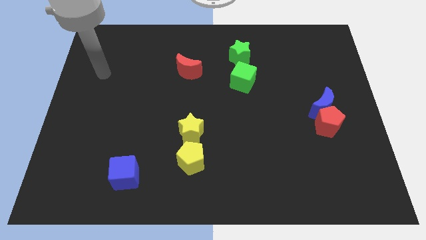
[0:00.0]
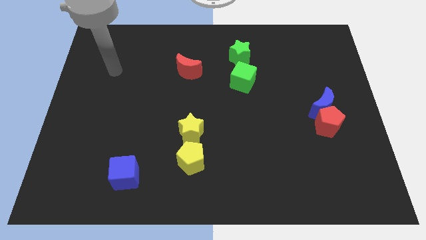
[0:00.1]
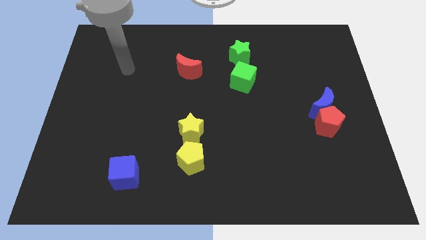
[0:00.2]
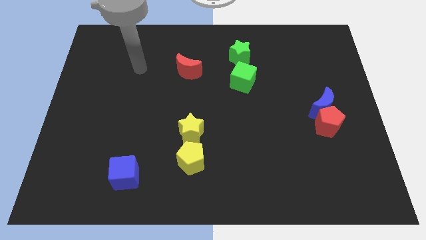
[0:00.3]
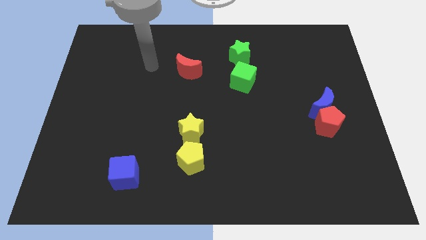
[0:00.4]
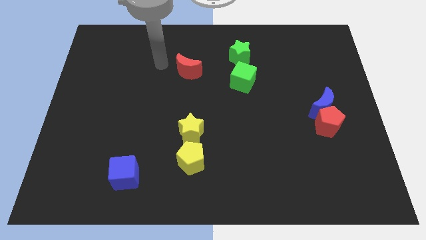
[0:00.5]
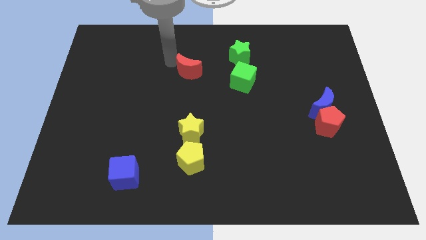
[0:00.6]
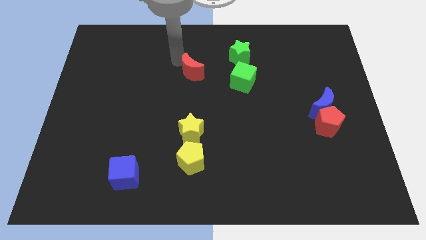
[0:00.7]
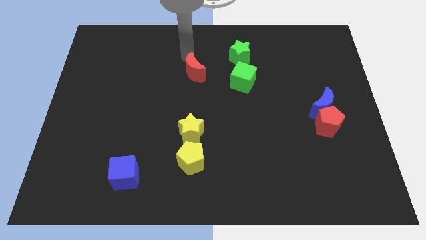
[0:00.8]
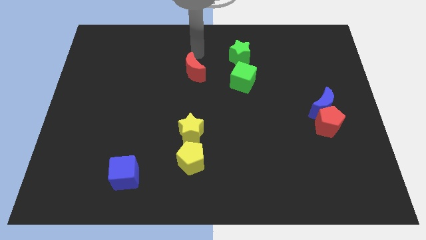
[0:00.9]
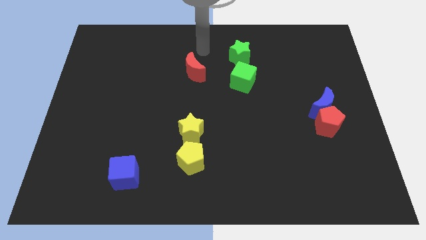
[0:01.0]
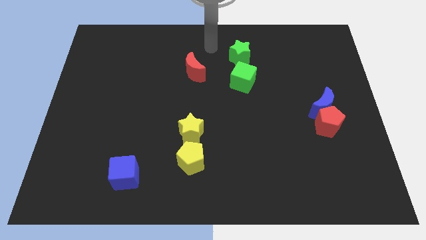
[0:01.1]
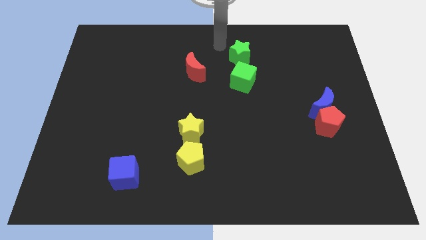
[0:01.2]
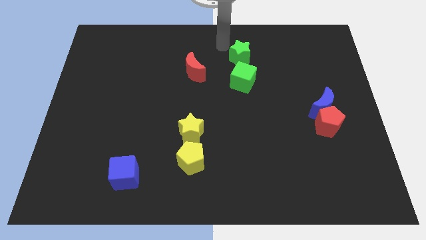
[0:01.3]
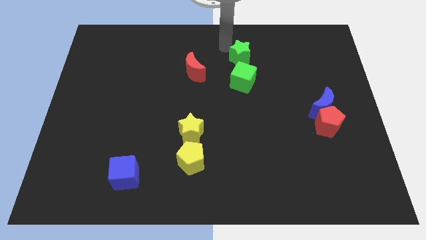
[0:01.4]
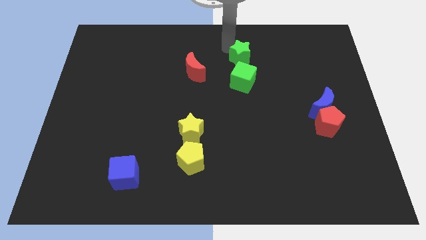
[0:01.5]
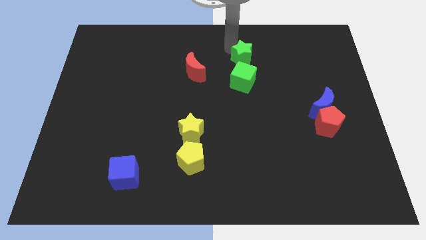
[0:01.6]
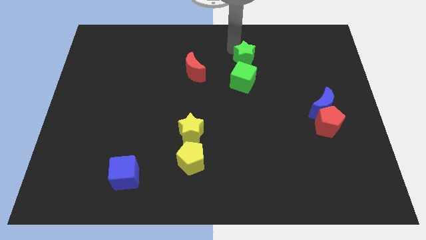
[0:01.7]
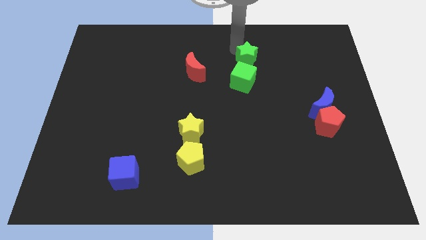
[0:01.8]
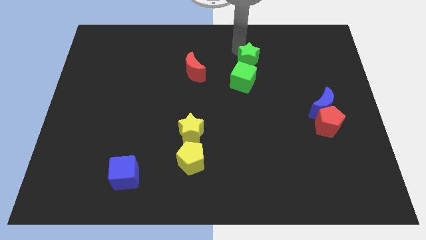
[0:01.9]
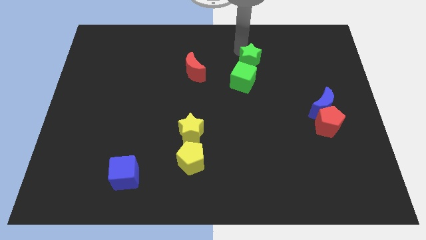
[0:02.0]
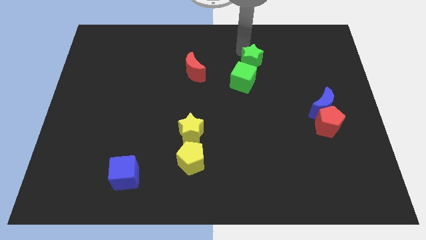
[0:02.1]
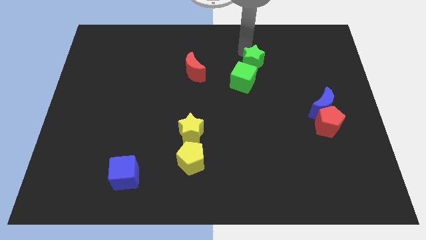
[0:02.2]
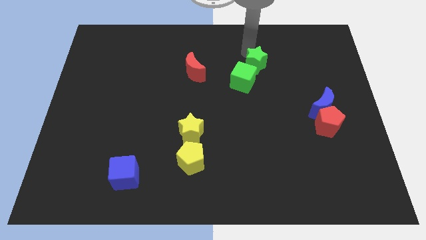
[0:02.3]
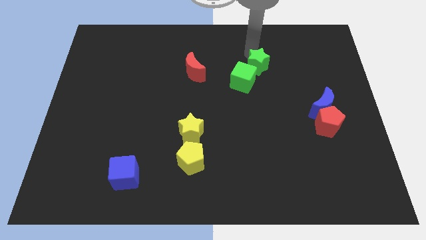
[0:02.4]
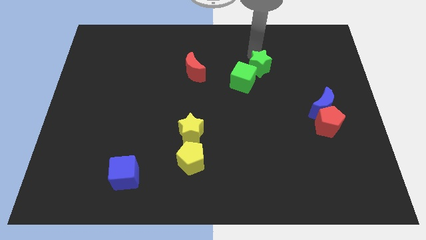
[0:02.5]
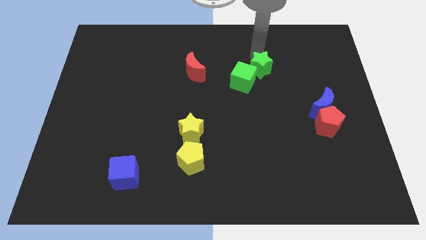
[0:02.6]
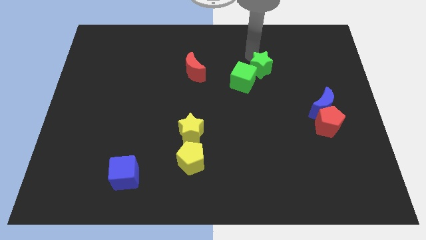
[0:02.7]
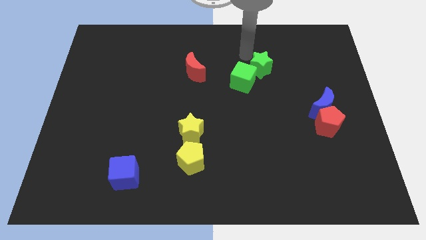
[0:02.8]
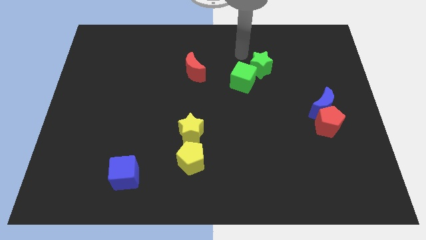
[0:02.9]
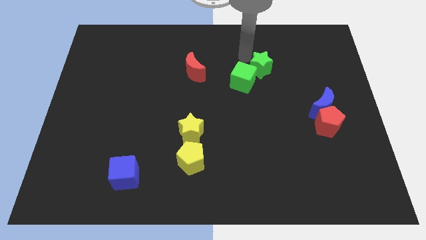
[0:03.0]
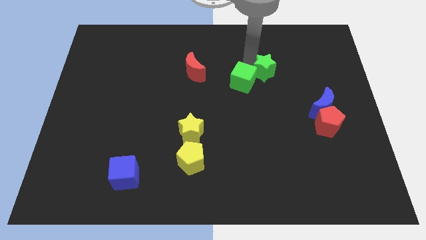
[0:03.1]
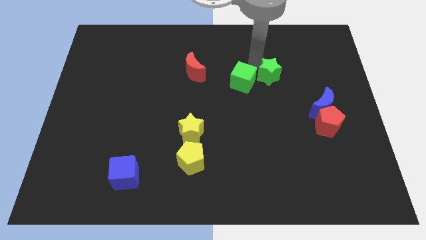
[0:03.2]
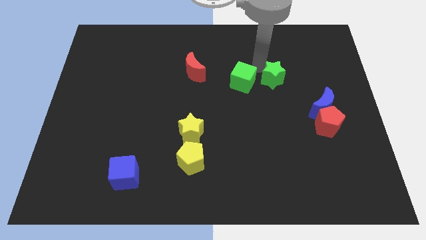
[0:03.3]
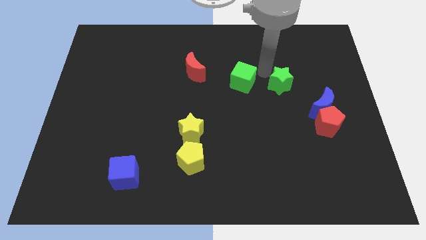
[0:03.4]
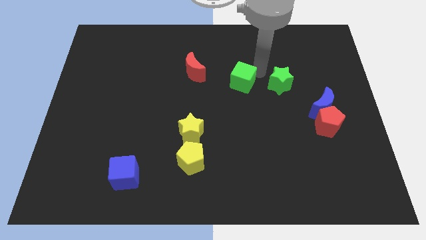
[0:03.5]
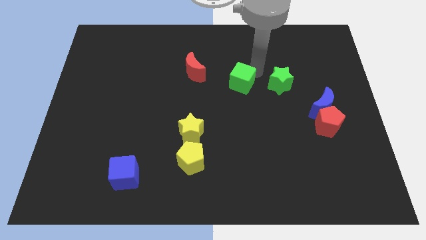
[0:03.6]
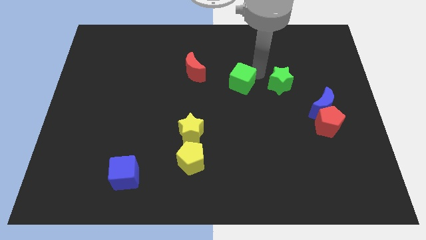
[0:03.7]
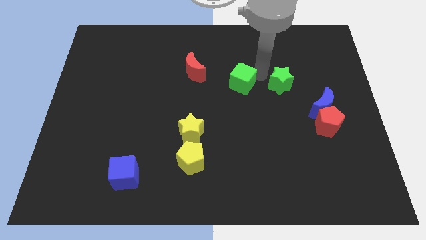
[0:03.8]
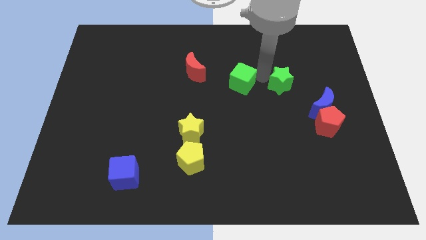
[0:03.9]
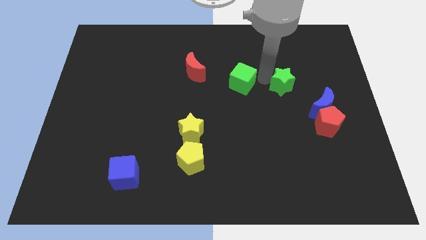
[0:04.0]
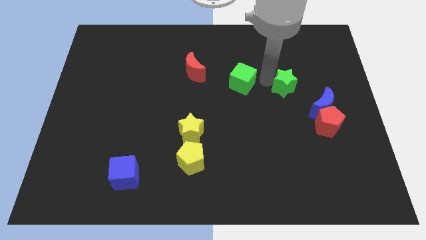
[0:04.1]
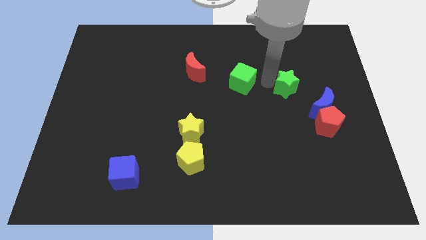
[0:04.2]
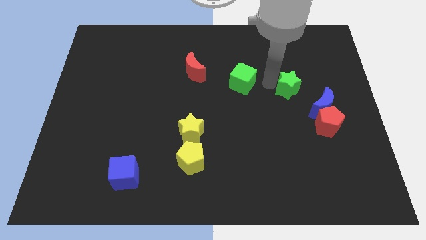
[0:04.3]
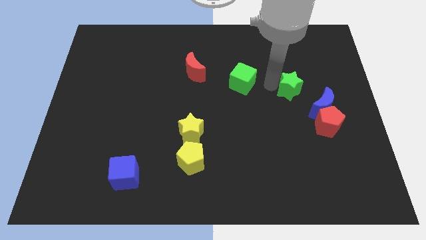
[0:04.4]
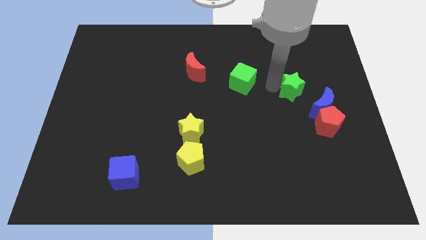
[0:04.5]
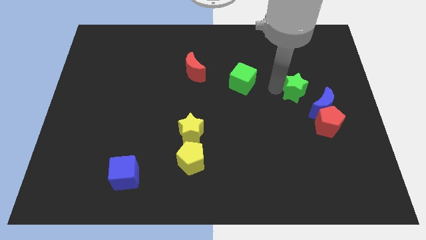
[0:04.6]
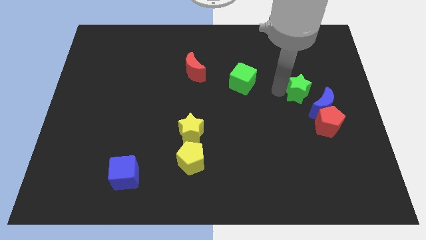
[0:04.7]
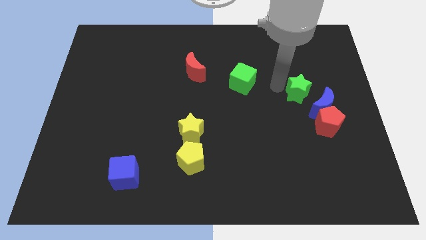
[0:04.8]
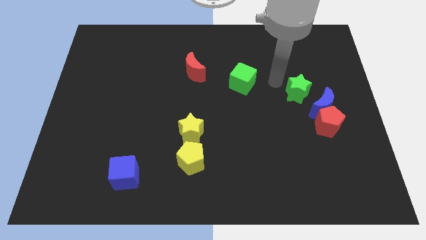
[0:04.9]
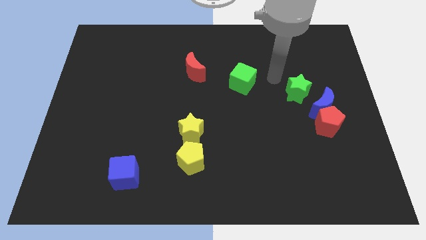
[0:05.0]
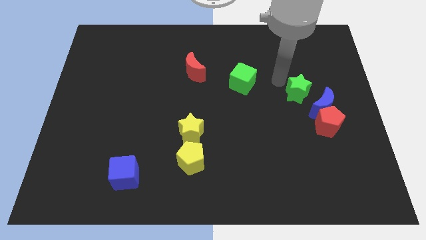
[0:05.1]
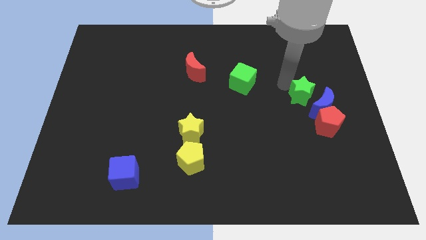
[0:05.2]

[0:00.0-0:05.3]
put the green star next to the blue moon

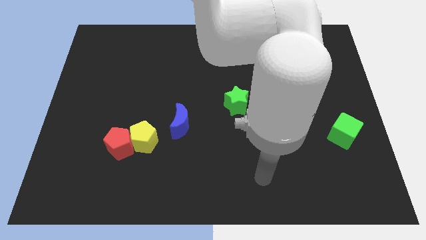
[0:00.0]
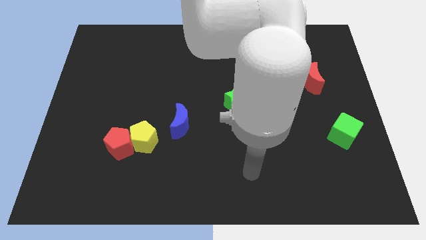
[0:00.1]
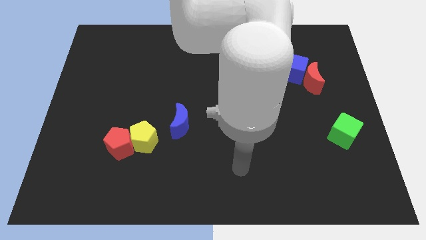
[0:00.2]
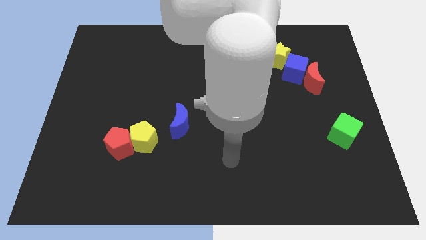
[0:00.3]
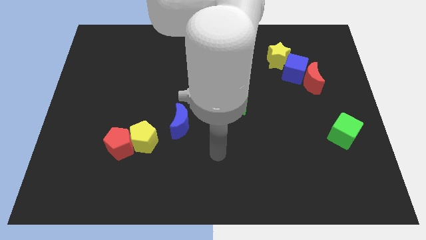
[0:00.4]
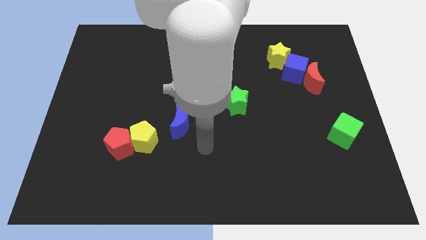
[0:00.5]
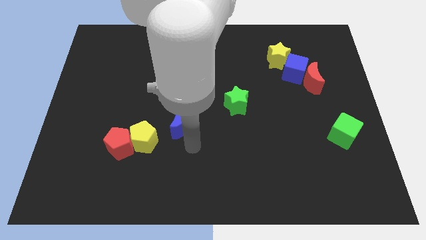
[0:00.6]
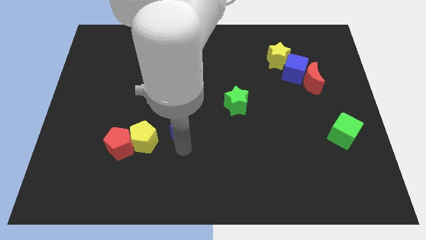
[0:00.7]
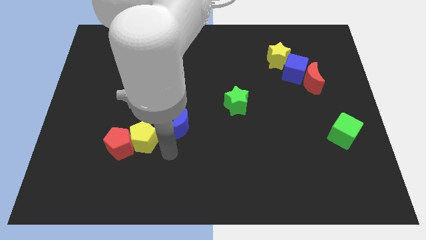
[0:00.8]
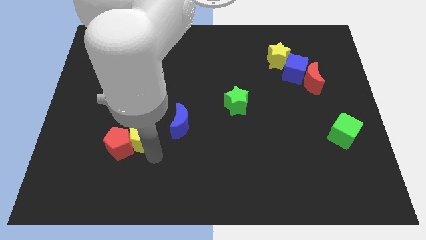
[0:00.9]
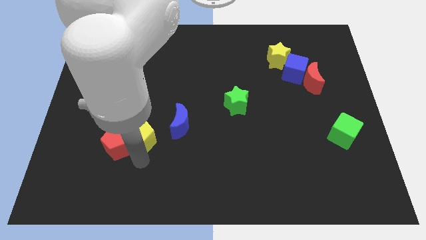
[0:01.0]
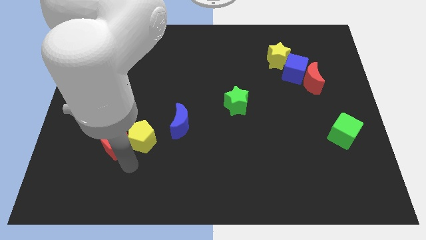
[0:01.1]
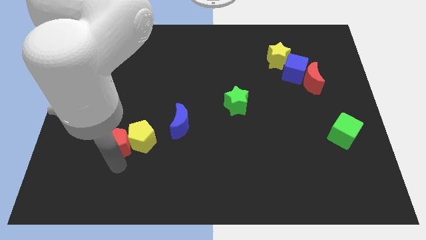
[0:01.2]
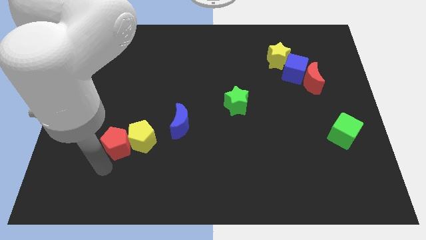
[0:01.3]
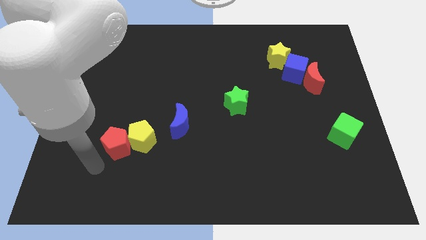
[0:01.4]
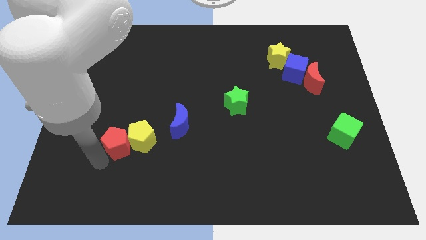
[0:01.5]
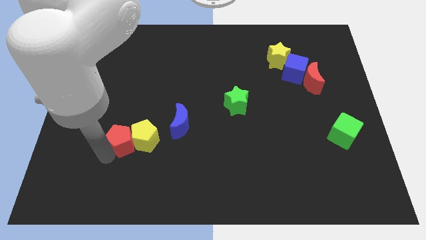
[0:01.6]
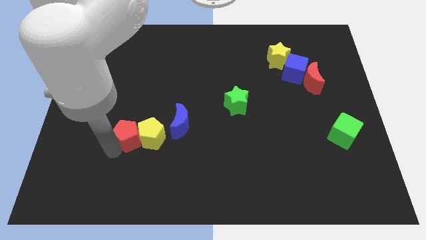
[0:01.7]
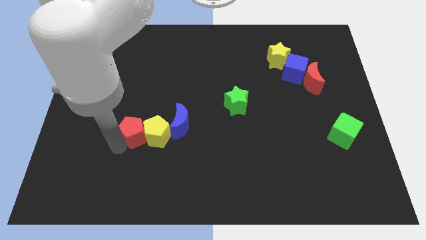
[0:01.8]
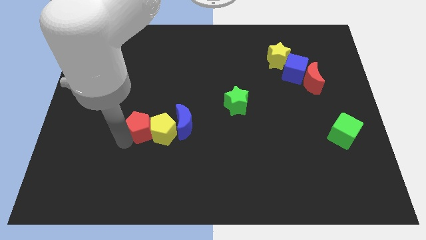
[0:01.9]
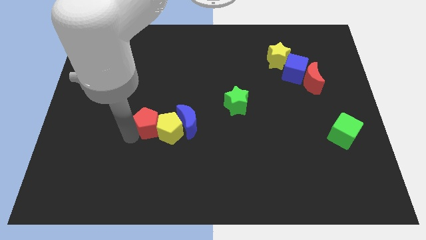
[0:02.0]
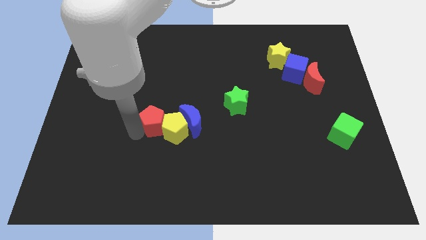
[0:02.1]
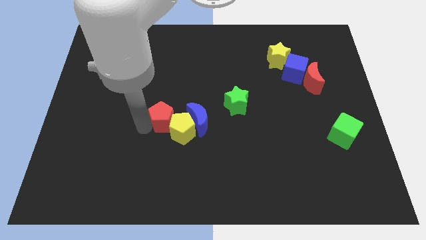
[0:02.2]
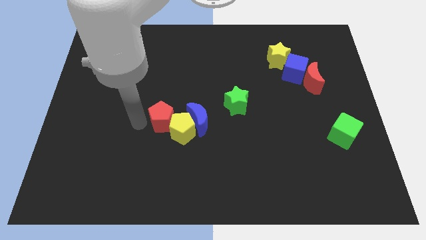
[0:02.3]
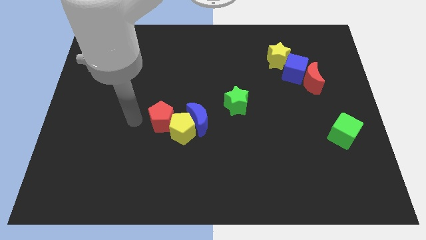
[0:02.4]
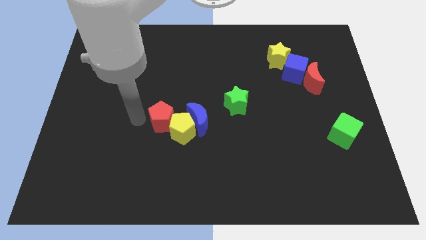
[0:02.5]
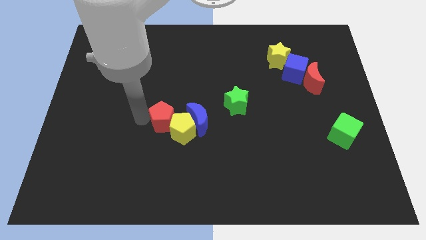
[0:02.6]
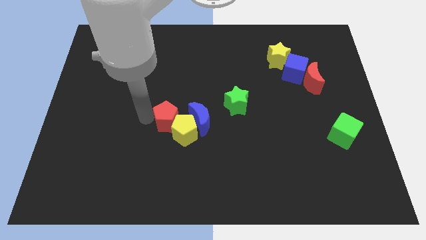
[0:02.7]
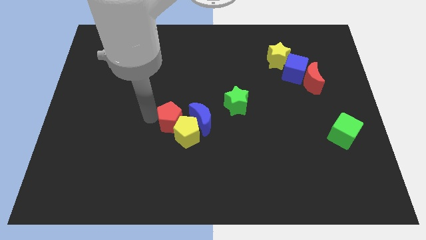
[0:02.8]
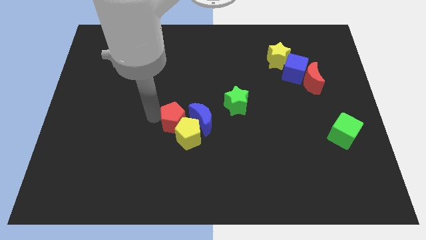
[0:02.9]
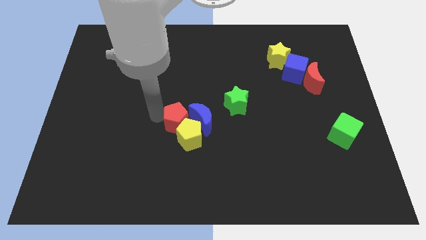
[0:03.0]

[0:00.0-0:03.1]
slide the red pentagon to the blue moon
